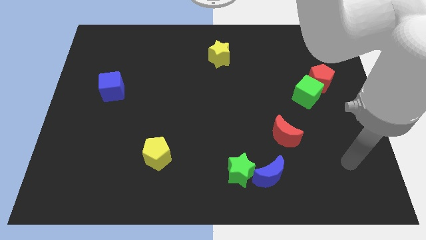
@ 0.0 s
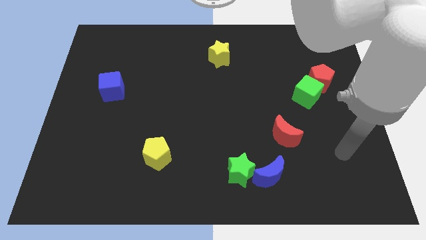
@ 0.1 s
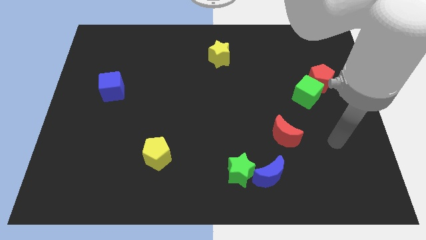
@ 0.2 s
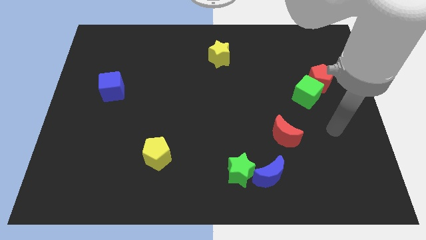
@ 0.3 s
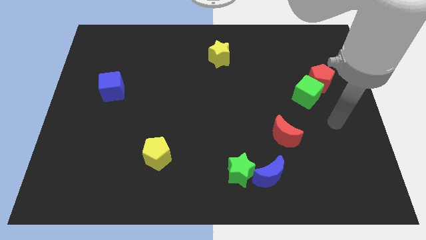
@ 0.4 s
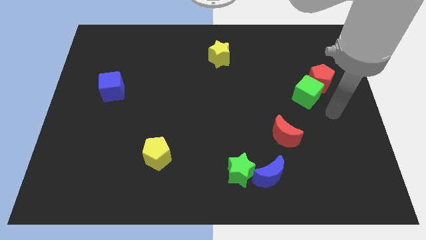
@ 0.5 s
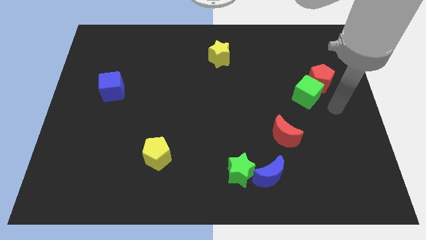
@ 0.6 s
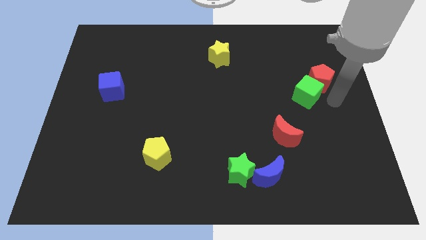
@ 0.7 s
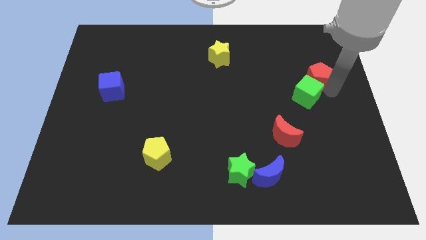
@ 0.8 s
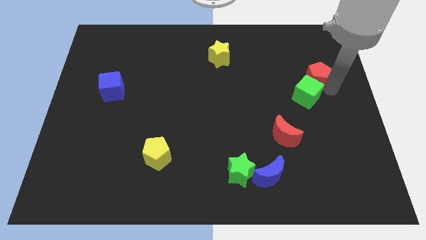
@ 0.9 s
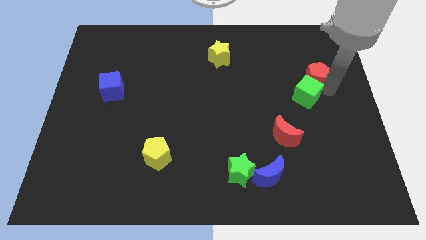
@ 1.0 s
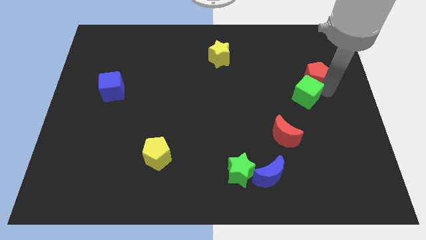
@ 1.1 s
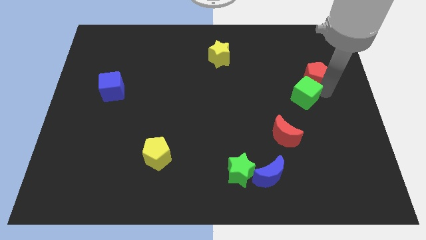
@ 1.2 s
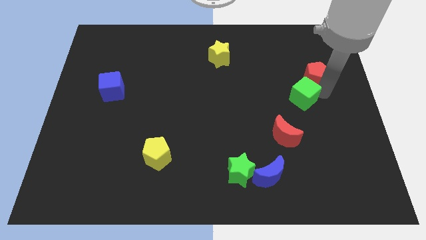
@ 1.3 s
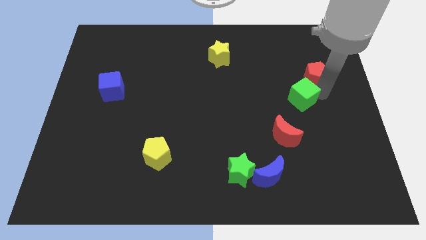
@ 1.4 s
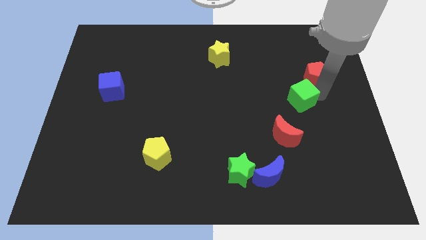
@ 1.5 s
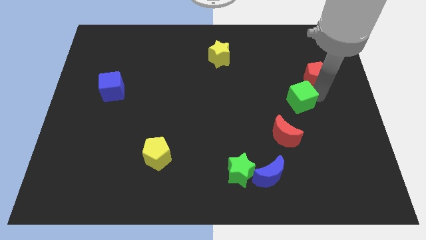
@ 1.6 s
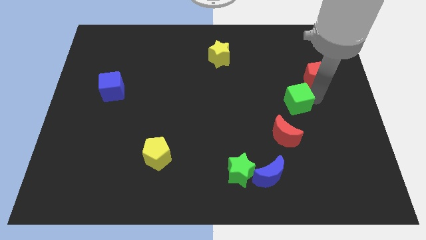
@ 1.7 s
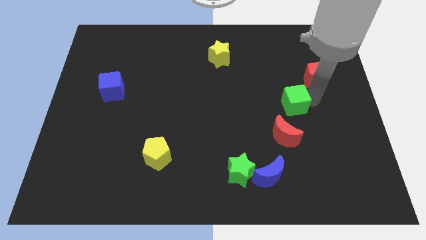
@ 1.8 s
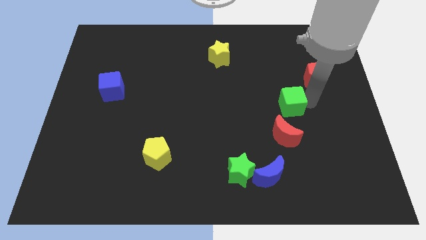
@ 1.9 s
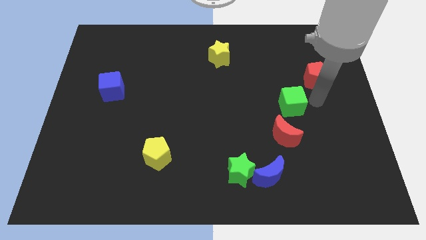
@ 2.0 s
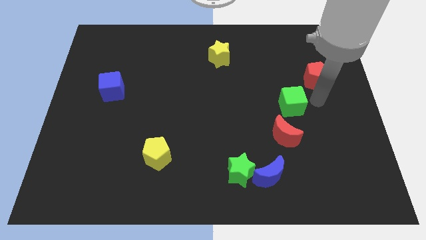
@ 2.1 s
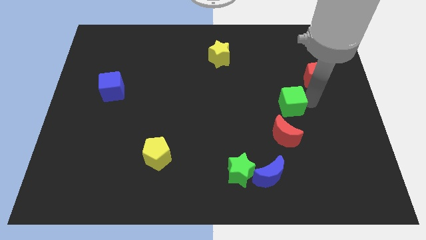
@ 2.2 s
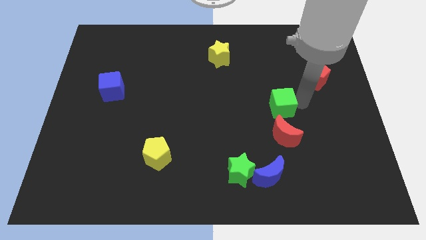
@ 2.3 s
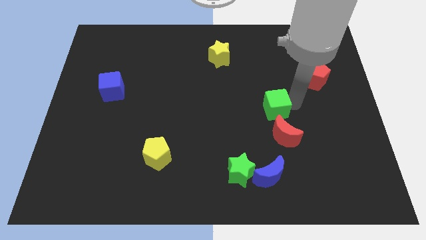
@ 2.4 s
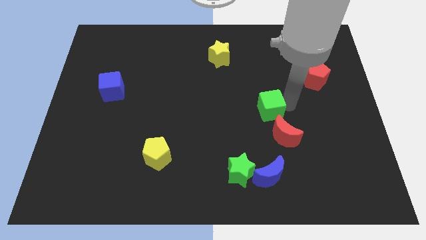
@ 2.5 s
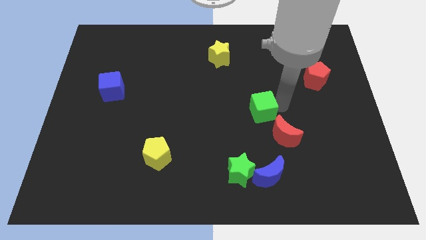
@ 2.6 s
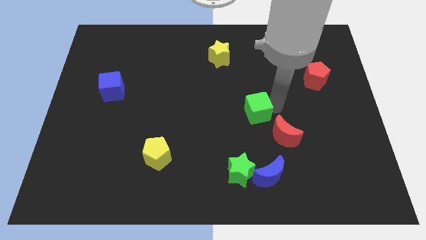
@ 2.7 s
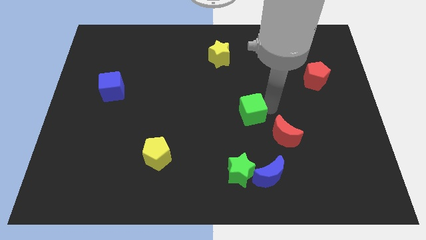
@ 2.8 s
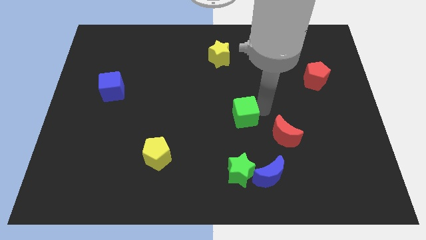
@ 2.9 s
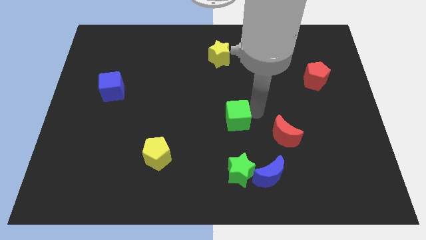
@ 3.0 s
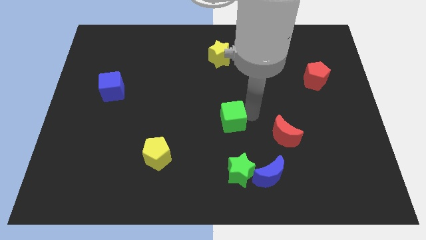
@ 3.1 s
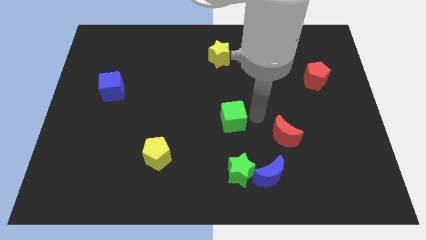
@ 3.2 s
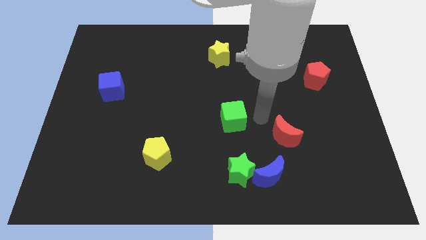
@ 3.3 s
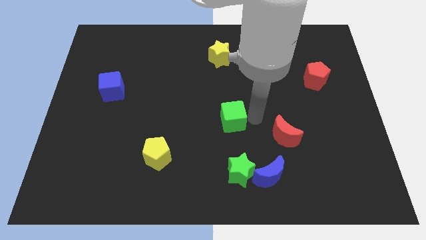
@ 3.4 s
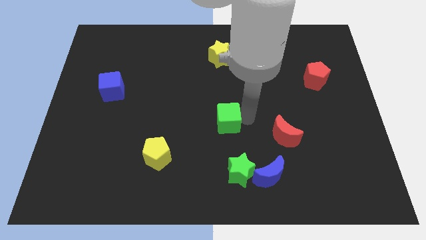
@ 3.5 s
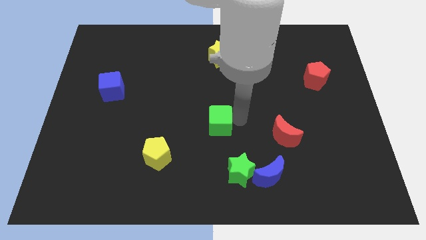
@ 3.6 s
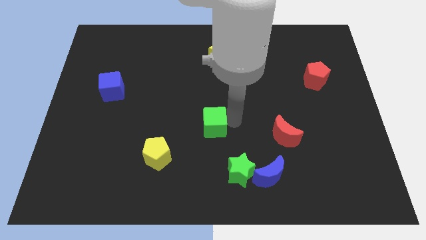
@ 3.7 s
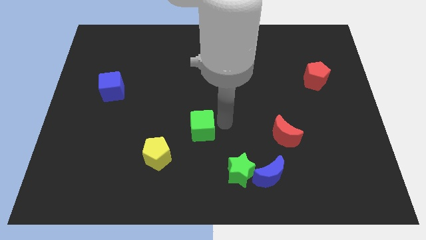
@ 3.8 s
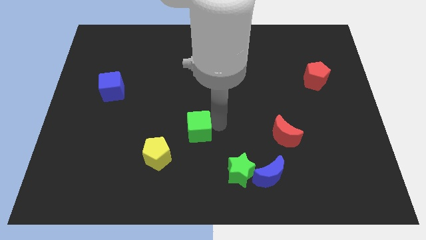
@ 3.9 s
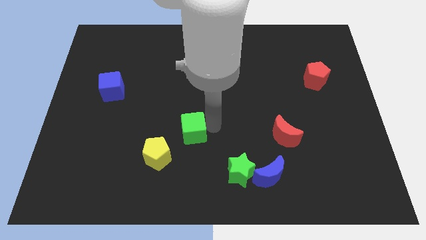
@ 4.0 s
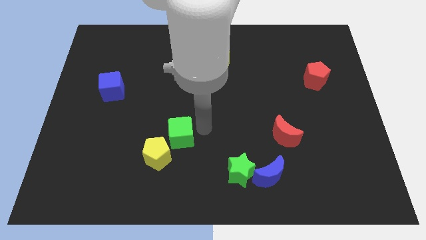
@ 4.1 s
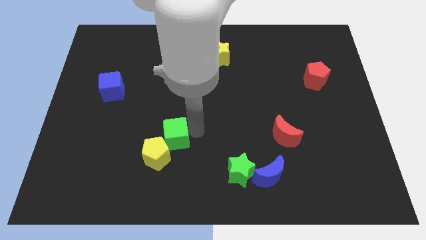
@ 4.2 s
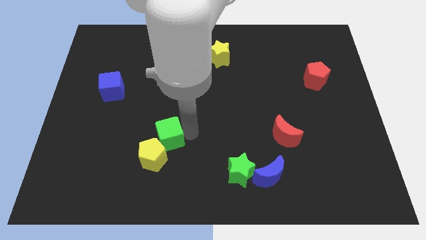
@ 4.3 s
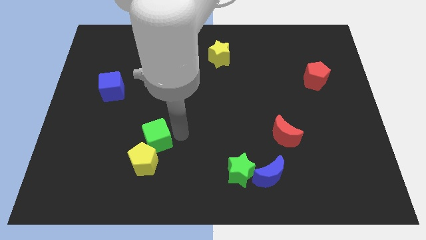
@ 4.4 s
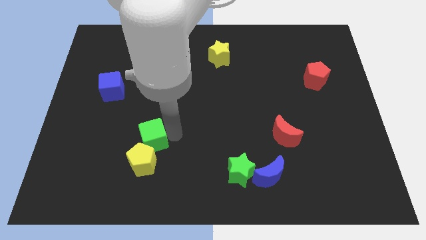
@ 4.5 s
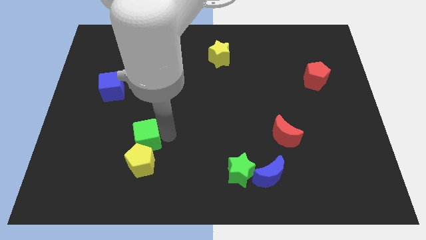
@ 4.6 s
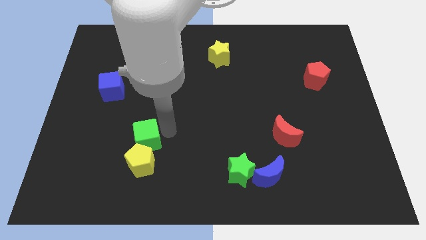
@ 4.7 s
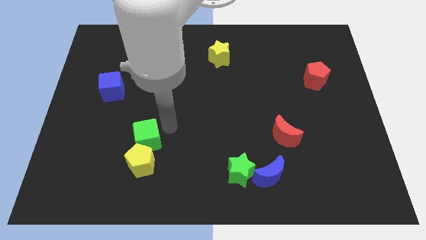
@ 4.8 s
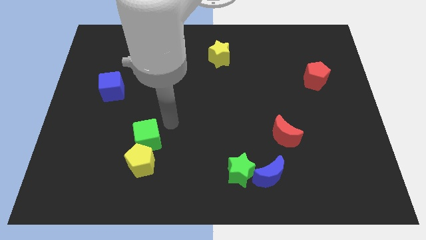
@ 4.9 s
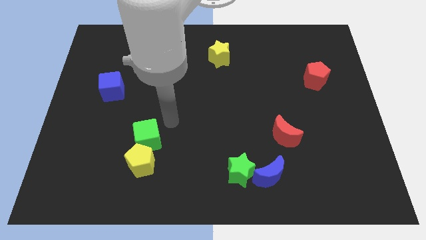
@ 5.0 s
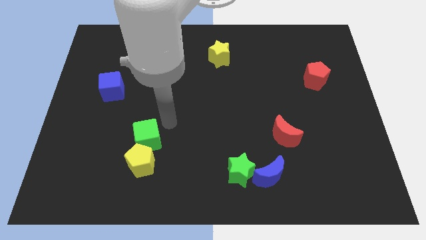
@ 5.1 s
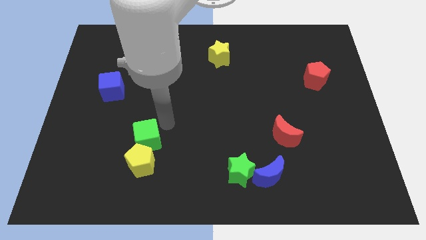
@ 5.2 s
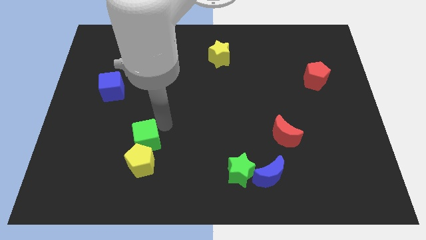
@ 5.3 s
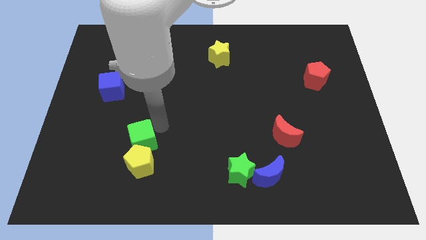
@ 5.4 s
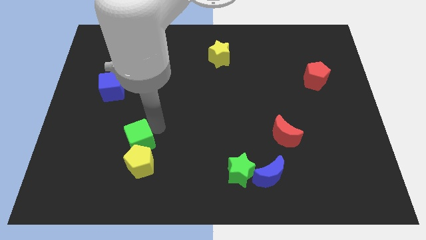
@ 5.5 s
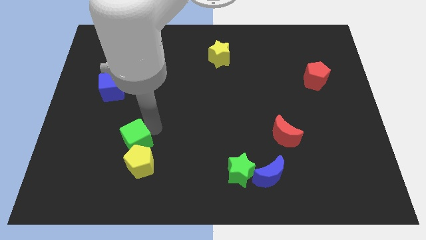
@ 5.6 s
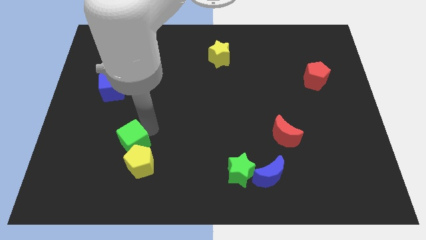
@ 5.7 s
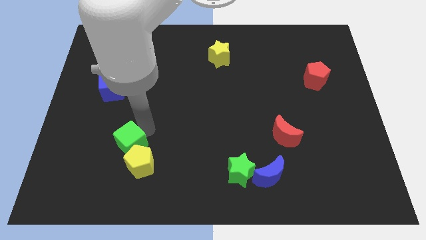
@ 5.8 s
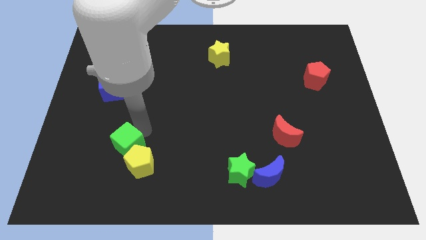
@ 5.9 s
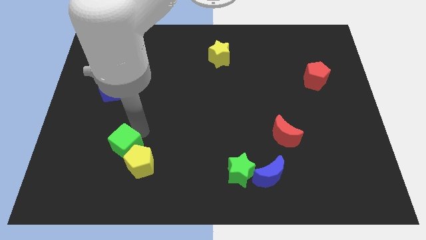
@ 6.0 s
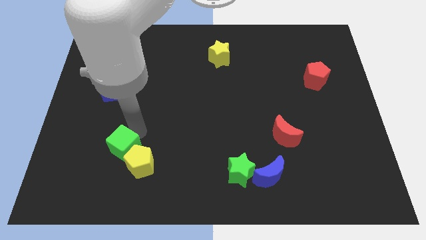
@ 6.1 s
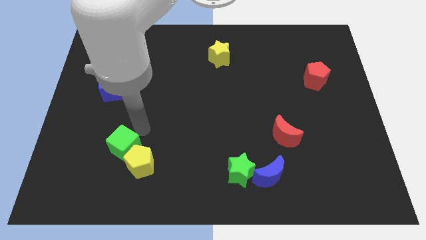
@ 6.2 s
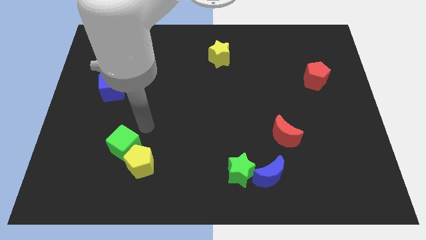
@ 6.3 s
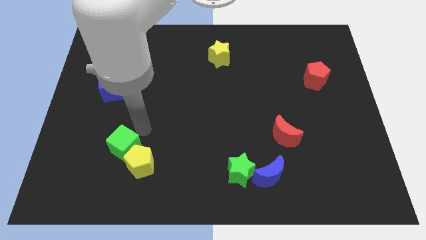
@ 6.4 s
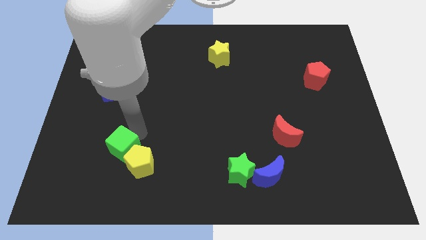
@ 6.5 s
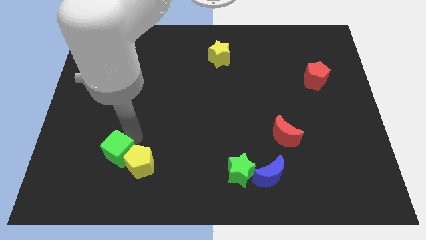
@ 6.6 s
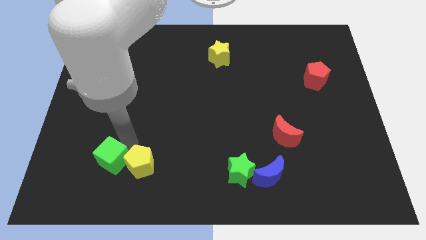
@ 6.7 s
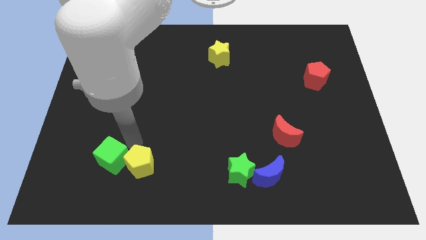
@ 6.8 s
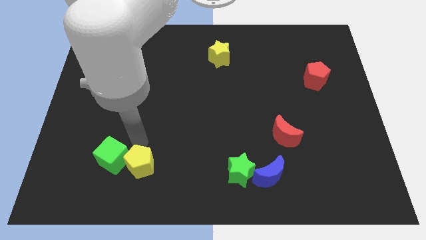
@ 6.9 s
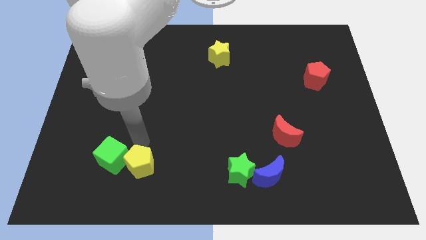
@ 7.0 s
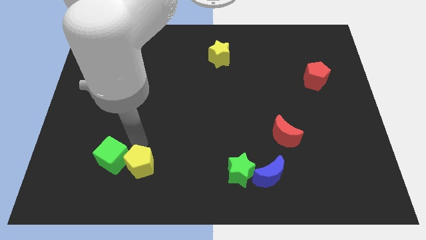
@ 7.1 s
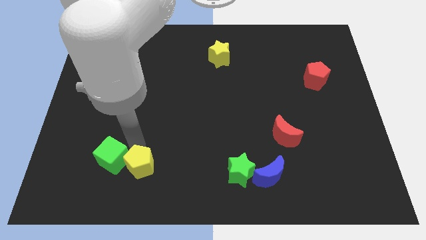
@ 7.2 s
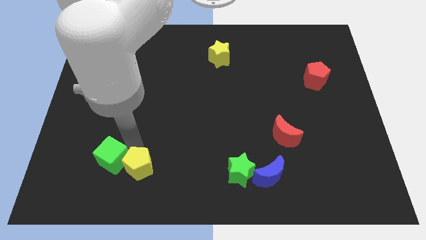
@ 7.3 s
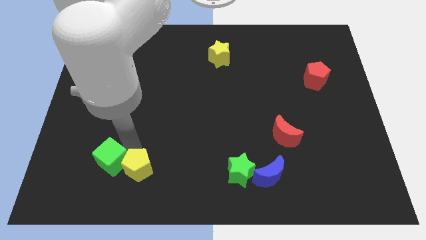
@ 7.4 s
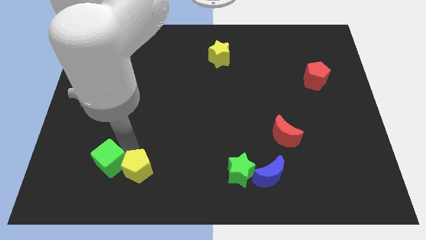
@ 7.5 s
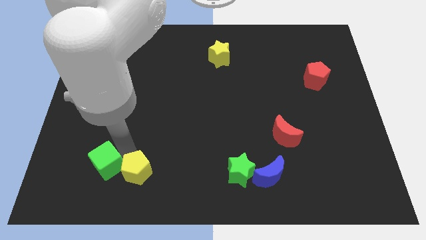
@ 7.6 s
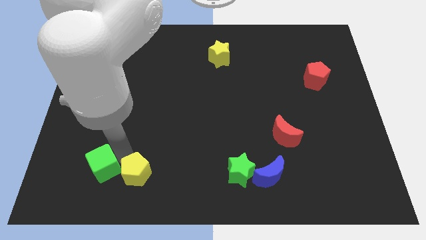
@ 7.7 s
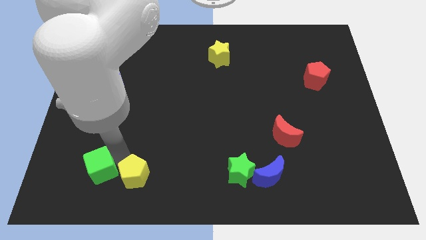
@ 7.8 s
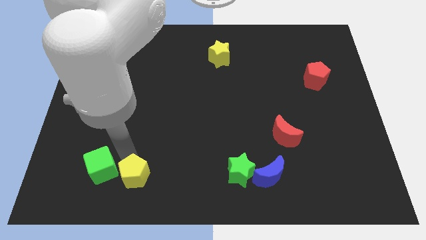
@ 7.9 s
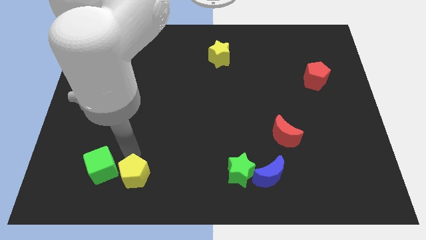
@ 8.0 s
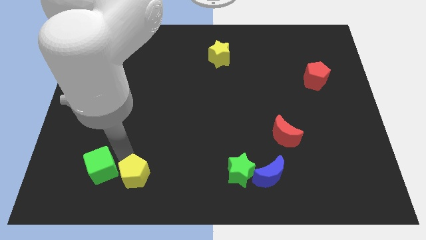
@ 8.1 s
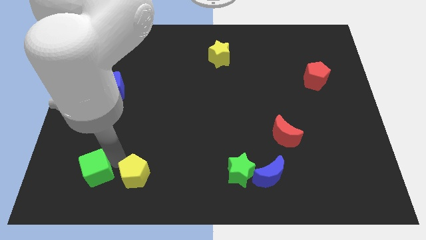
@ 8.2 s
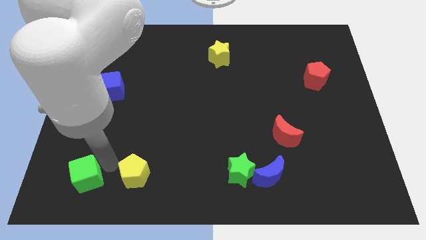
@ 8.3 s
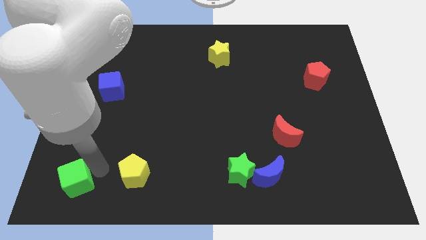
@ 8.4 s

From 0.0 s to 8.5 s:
slide the green cube to the bottom left
